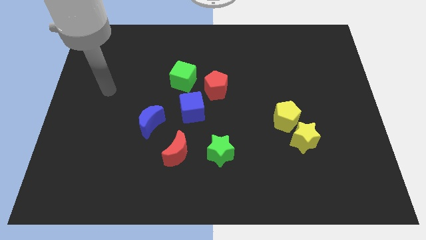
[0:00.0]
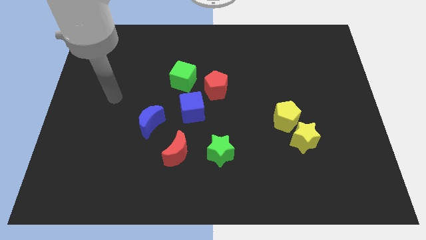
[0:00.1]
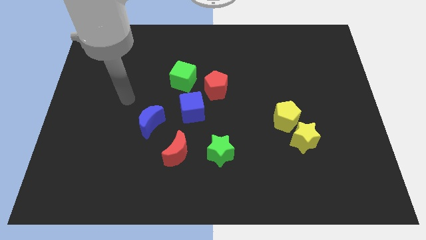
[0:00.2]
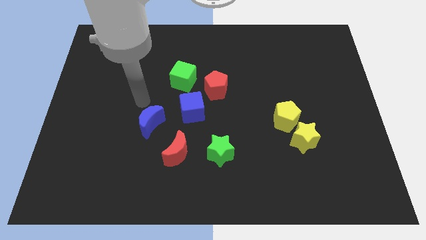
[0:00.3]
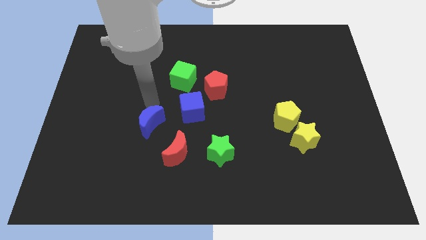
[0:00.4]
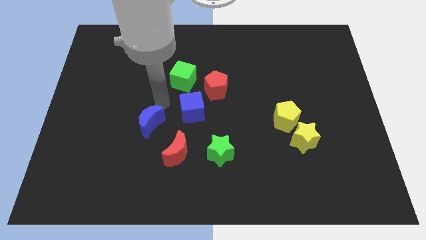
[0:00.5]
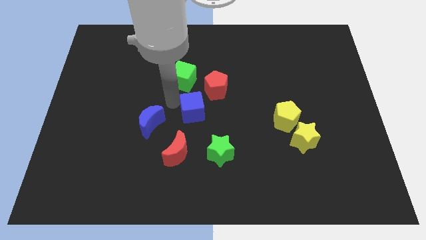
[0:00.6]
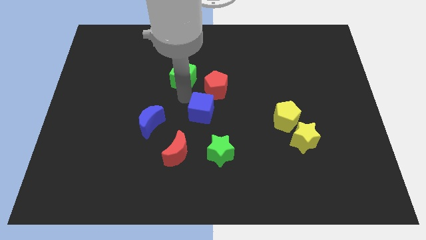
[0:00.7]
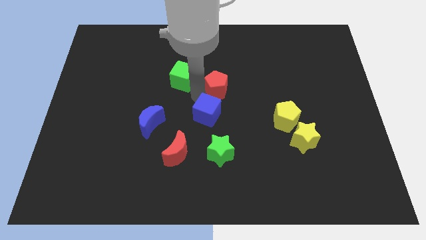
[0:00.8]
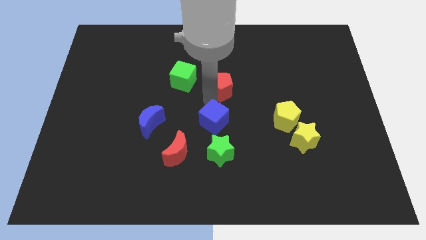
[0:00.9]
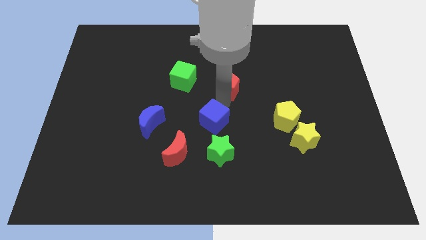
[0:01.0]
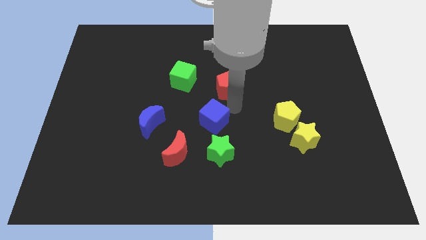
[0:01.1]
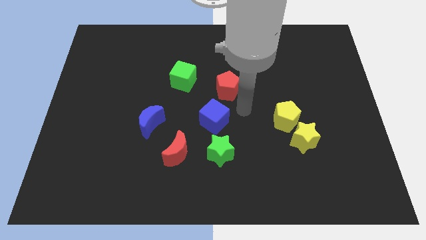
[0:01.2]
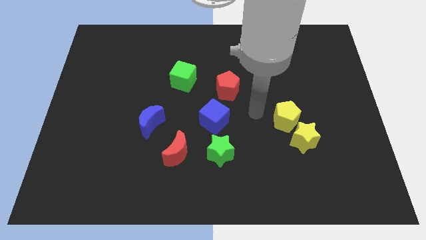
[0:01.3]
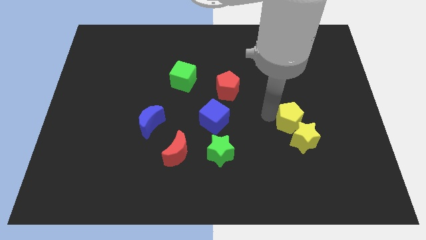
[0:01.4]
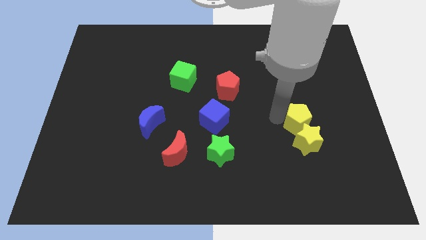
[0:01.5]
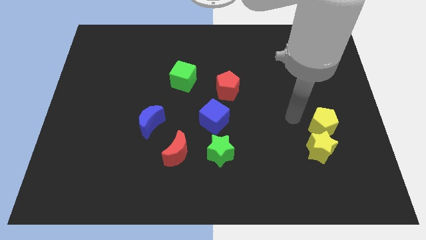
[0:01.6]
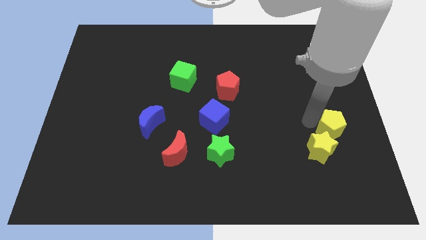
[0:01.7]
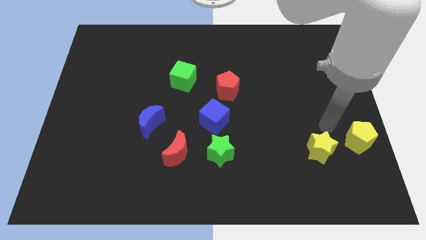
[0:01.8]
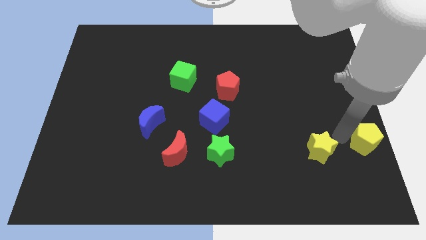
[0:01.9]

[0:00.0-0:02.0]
separate the yellow star from the yellow pentagon

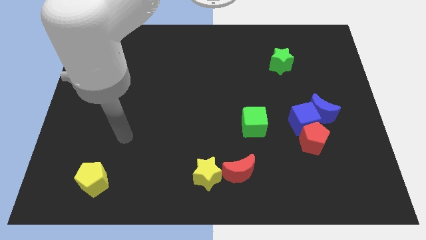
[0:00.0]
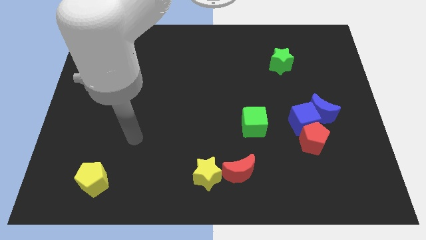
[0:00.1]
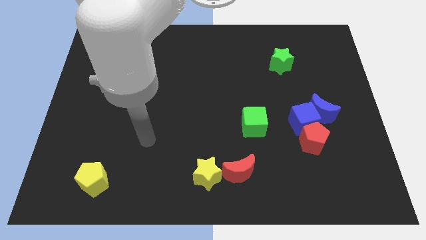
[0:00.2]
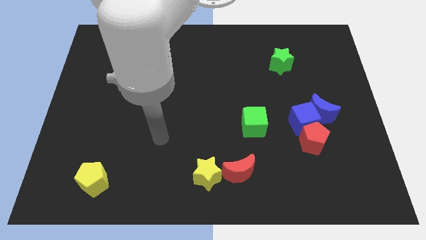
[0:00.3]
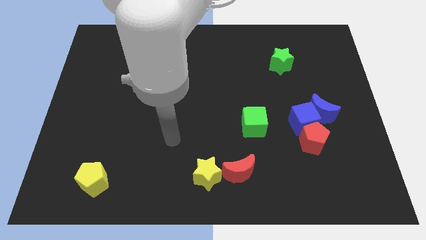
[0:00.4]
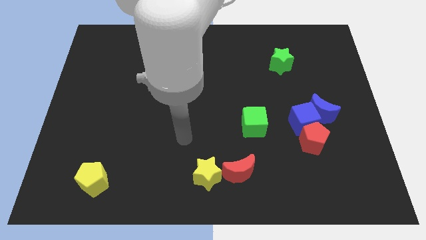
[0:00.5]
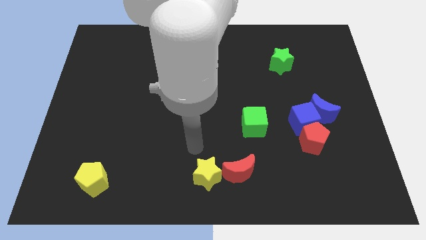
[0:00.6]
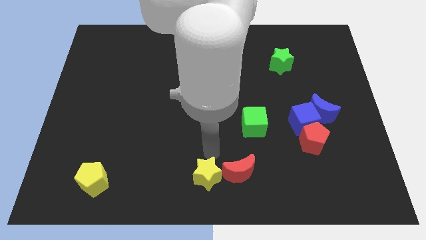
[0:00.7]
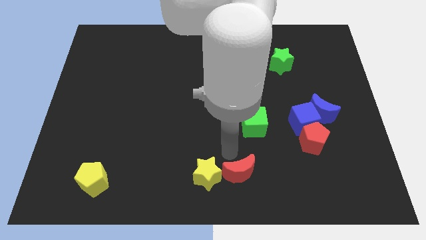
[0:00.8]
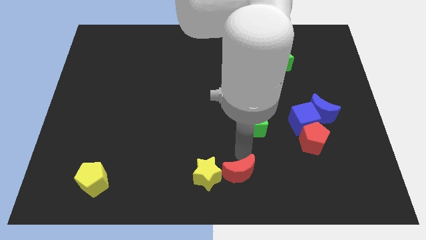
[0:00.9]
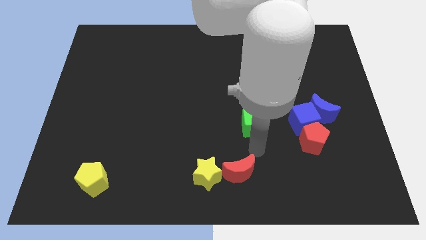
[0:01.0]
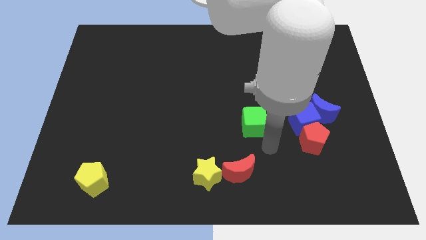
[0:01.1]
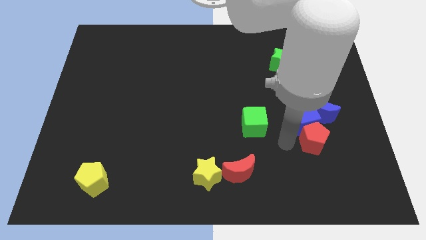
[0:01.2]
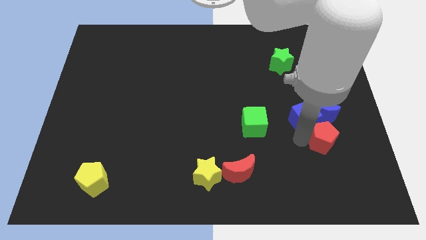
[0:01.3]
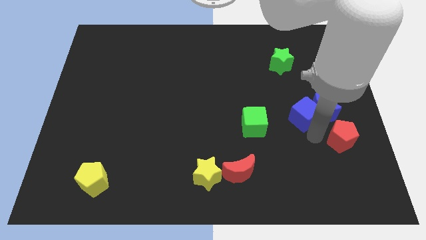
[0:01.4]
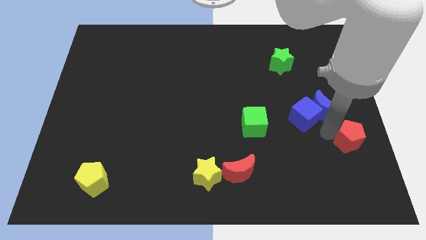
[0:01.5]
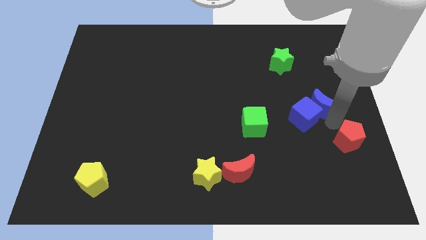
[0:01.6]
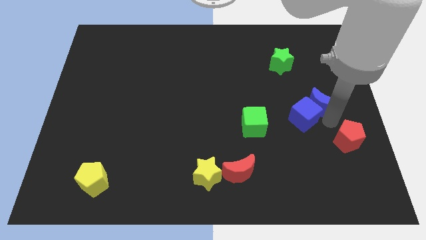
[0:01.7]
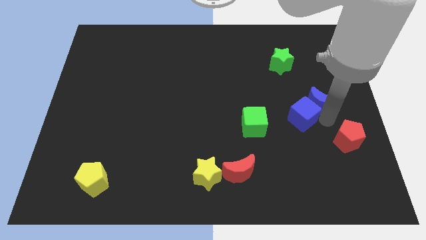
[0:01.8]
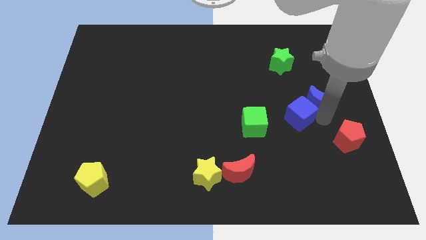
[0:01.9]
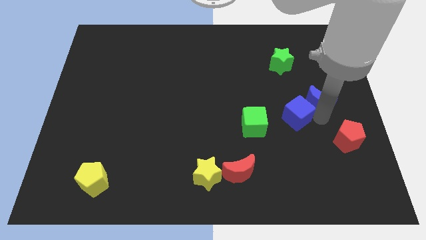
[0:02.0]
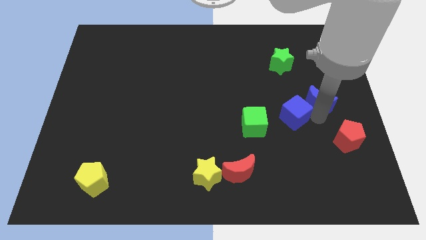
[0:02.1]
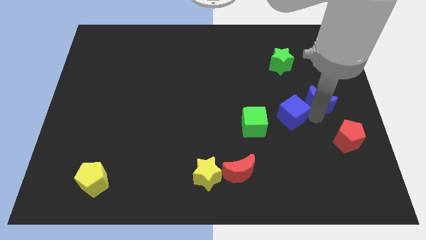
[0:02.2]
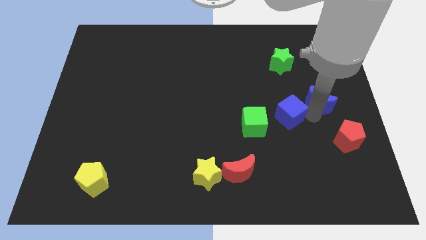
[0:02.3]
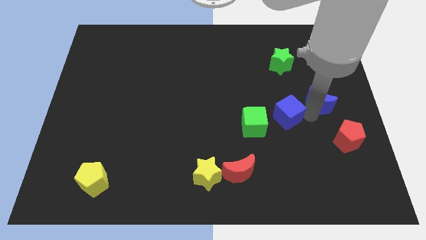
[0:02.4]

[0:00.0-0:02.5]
pull the blue cube apart from the blue moon and red pentagon

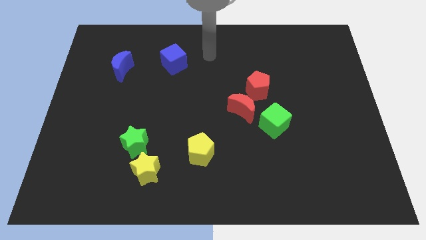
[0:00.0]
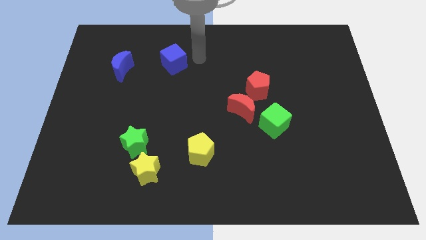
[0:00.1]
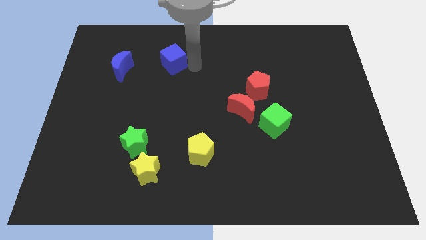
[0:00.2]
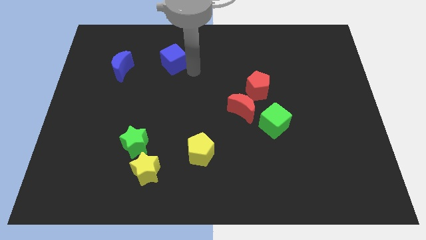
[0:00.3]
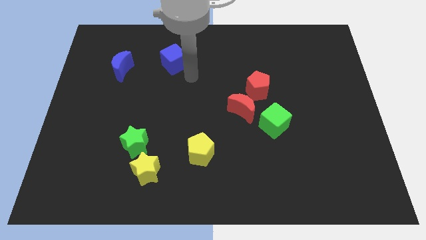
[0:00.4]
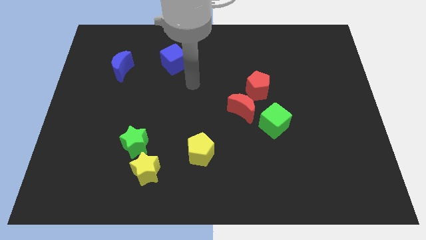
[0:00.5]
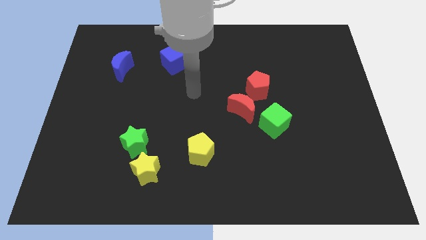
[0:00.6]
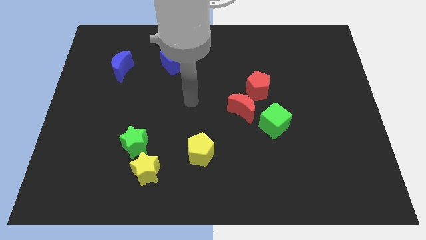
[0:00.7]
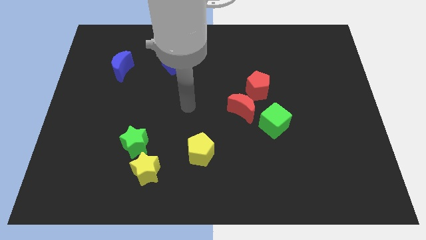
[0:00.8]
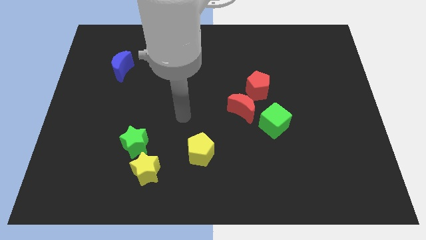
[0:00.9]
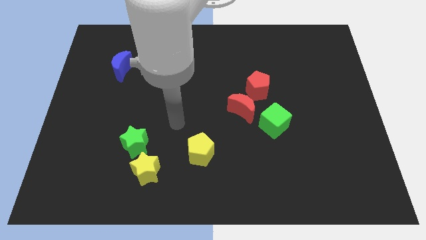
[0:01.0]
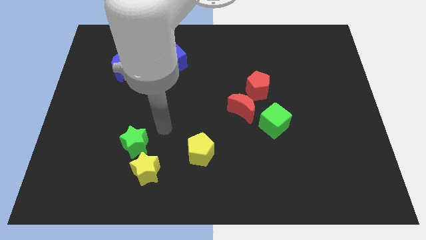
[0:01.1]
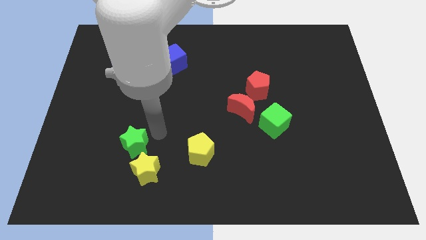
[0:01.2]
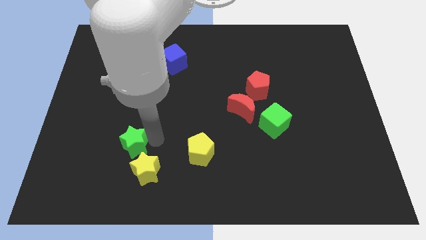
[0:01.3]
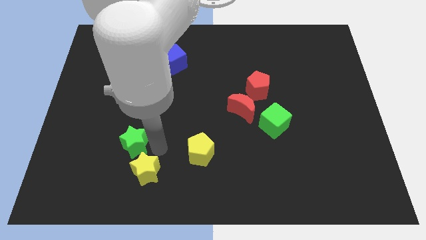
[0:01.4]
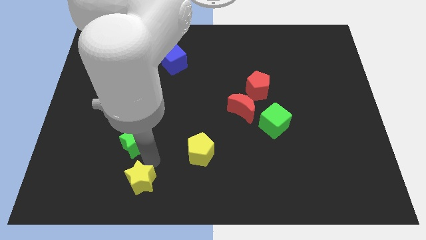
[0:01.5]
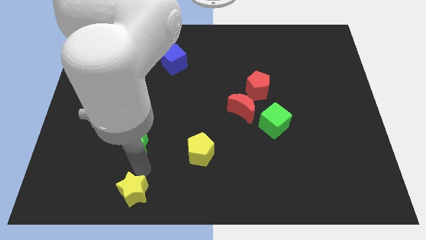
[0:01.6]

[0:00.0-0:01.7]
move the green star away from the yellow star

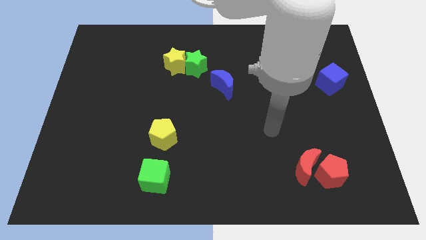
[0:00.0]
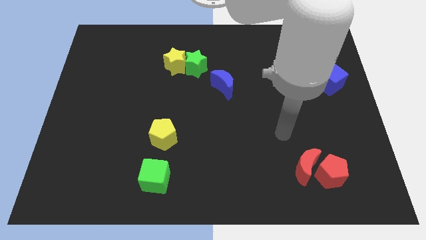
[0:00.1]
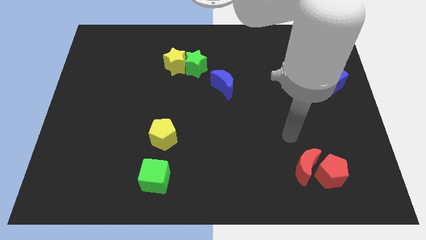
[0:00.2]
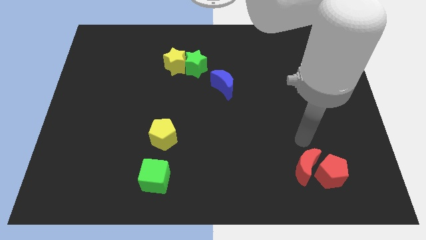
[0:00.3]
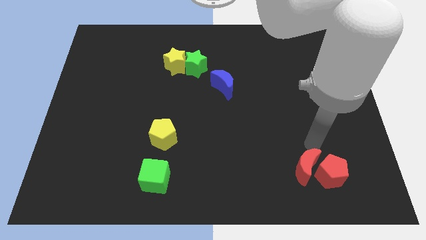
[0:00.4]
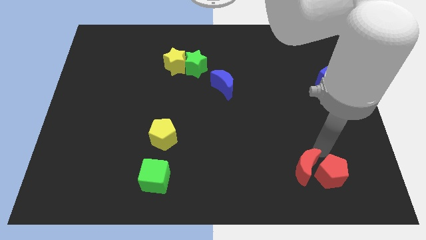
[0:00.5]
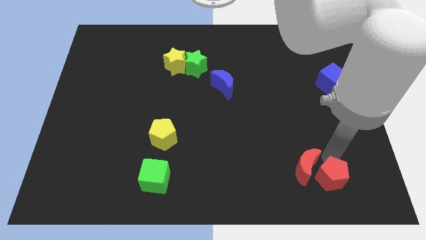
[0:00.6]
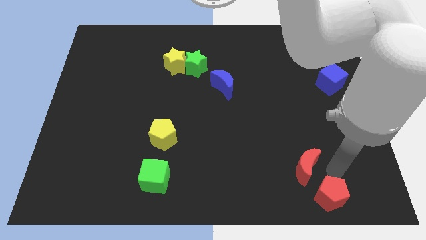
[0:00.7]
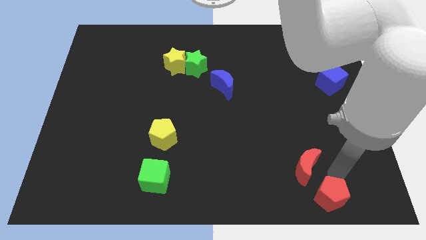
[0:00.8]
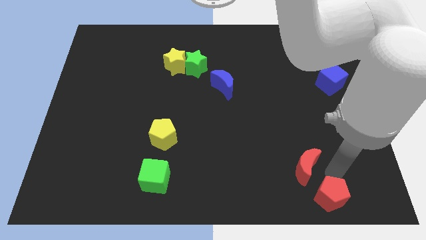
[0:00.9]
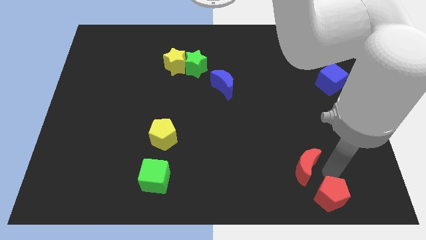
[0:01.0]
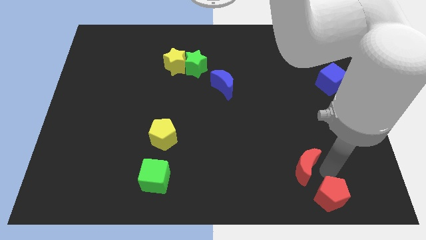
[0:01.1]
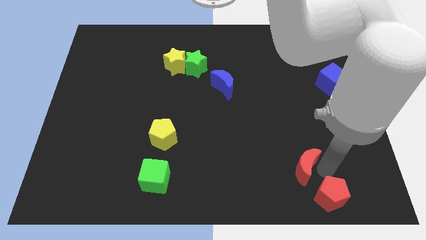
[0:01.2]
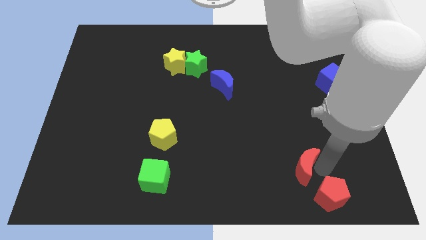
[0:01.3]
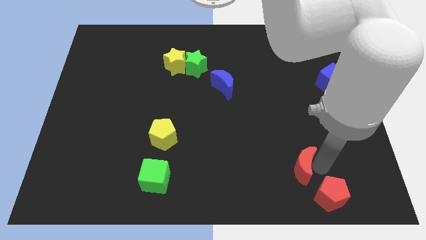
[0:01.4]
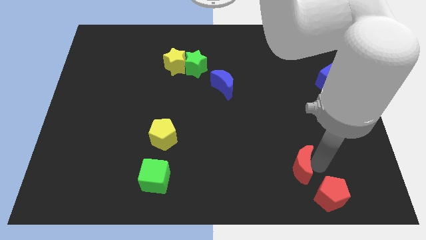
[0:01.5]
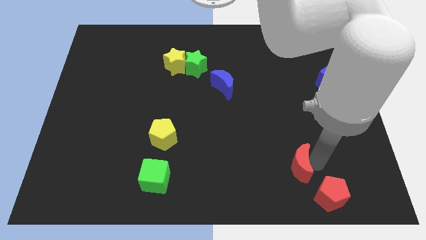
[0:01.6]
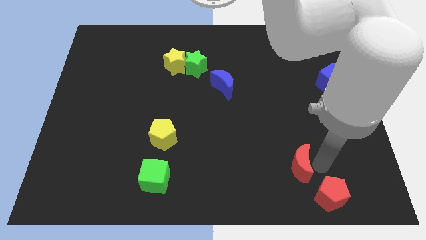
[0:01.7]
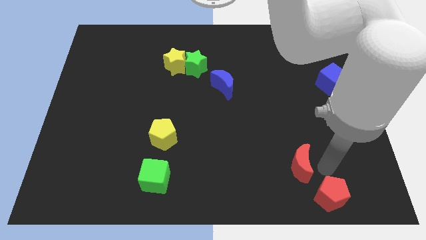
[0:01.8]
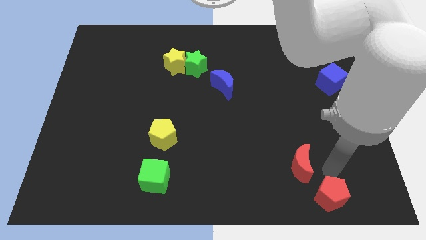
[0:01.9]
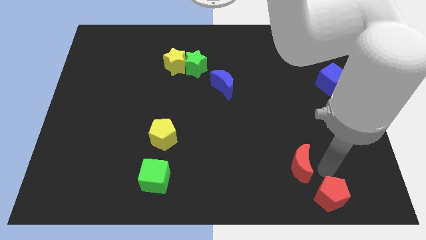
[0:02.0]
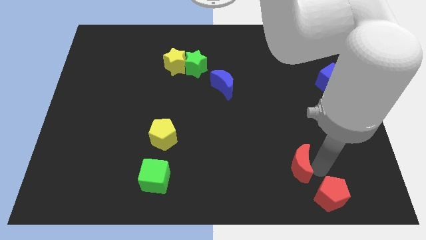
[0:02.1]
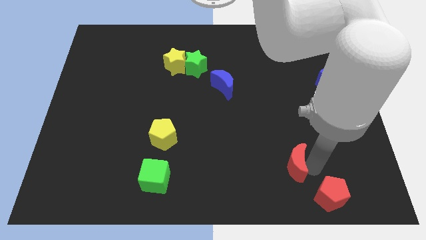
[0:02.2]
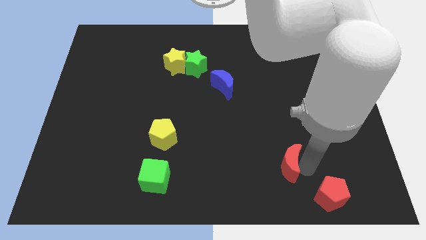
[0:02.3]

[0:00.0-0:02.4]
move the red moon away from the red pentagon

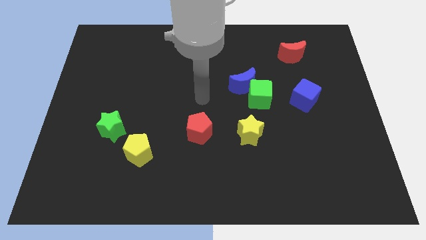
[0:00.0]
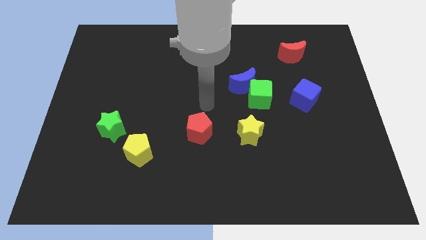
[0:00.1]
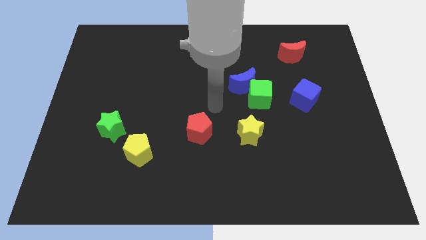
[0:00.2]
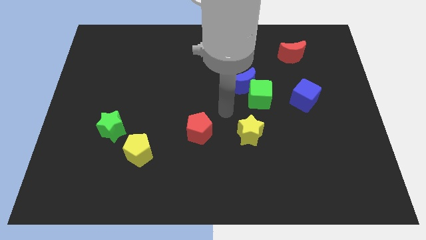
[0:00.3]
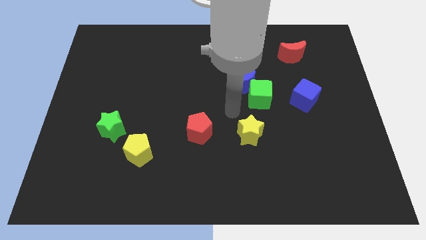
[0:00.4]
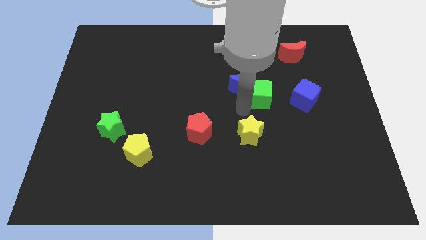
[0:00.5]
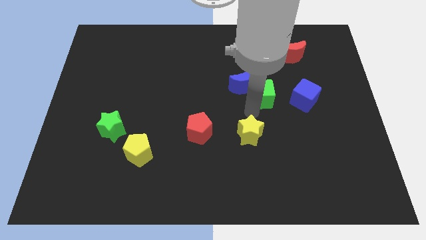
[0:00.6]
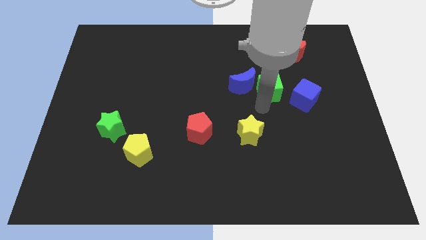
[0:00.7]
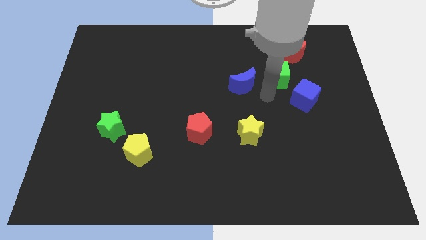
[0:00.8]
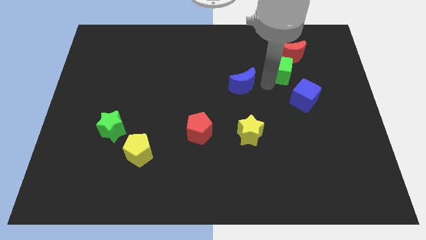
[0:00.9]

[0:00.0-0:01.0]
move the blue moon away from the green cube
